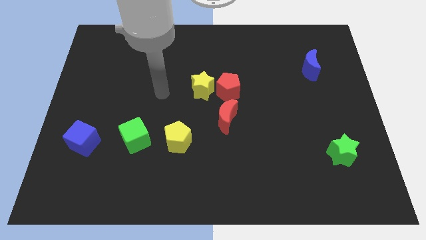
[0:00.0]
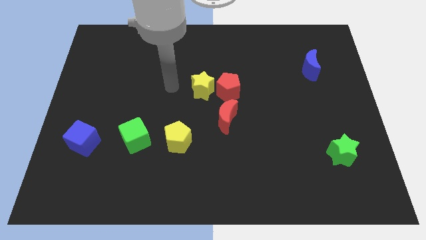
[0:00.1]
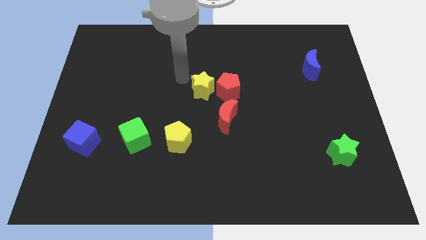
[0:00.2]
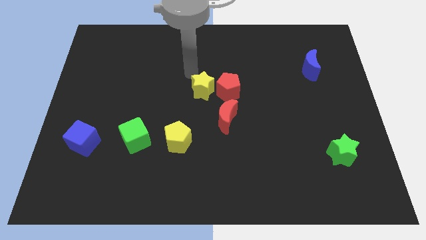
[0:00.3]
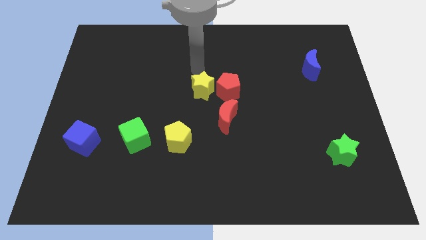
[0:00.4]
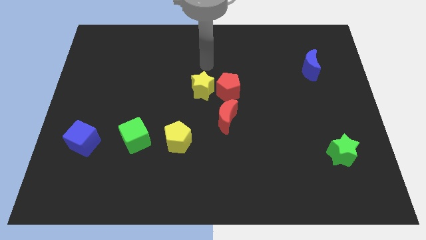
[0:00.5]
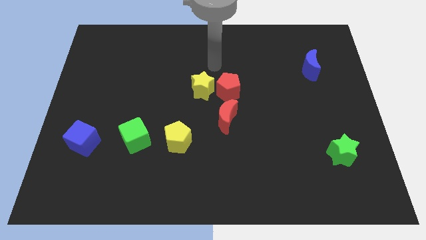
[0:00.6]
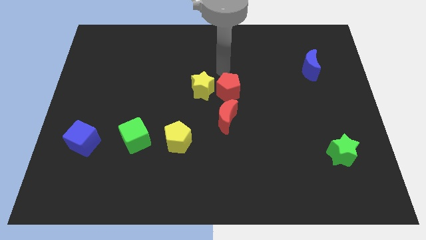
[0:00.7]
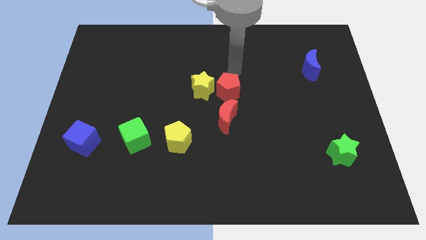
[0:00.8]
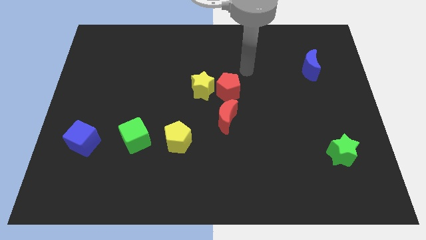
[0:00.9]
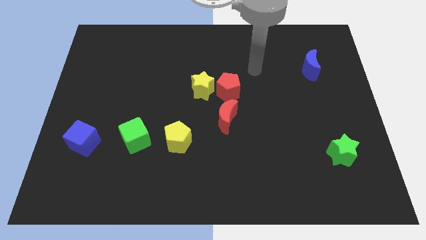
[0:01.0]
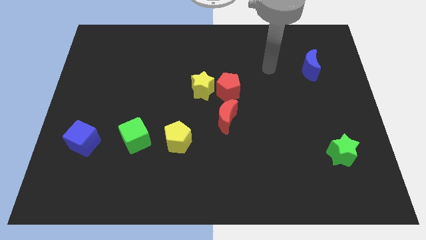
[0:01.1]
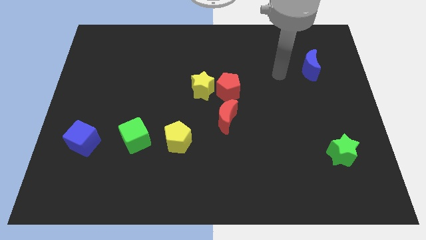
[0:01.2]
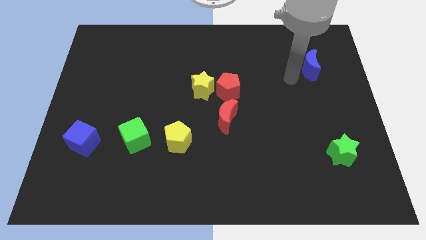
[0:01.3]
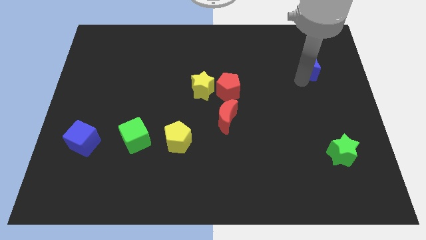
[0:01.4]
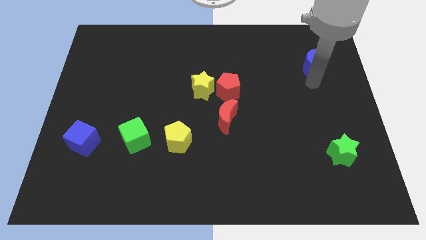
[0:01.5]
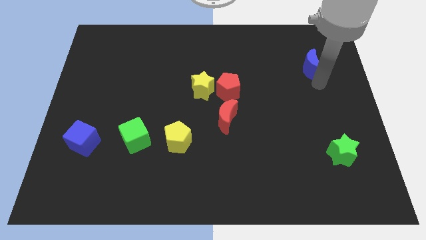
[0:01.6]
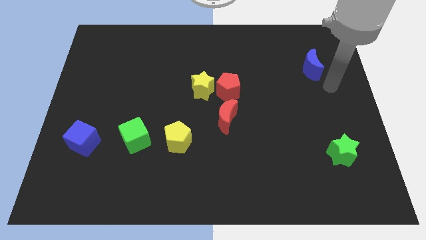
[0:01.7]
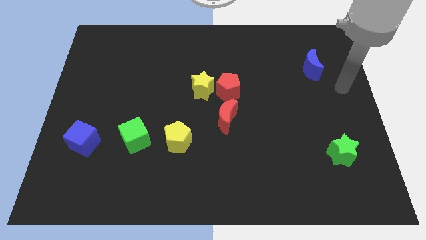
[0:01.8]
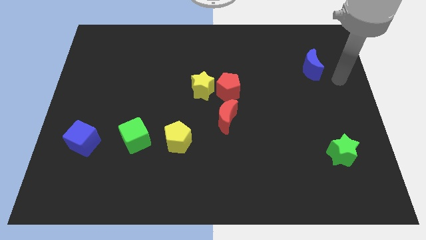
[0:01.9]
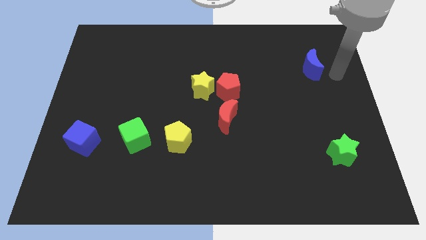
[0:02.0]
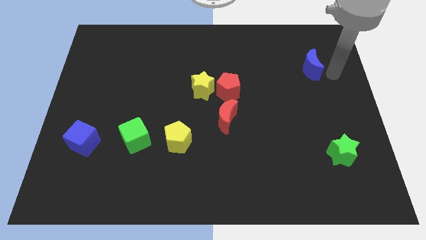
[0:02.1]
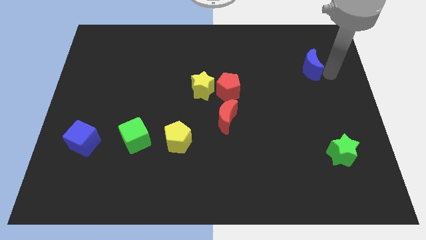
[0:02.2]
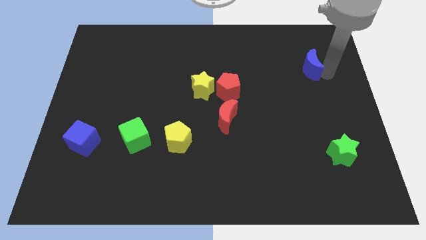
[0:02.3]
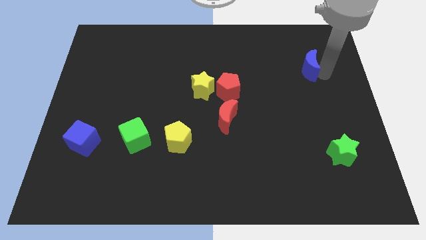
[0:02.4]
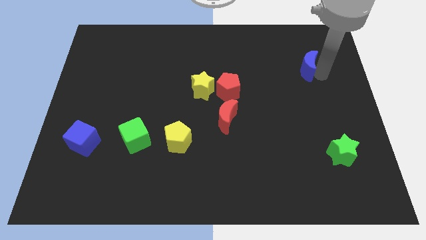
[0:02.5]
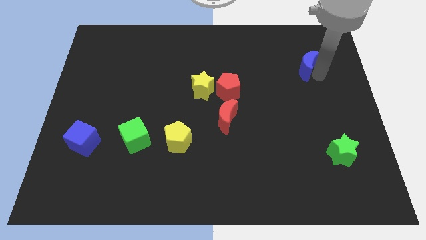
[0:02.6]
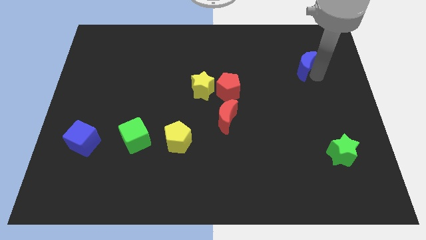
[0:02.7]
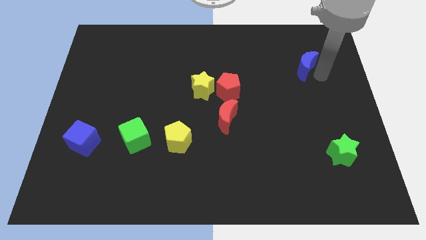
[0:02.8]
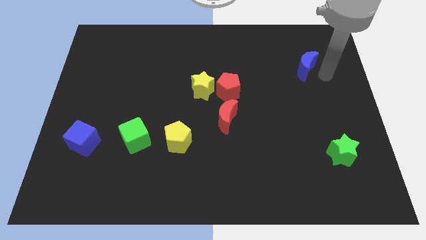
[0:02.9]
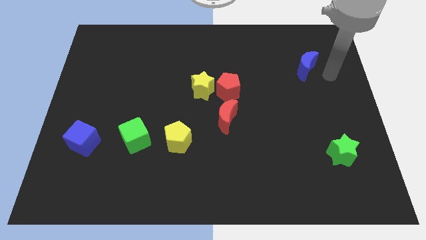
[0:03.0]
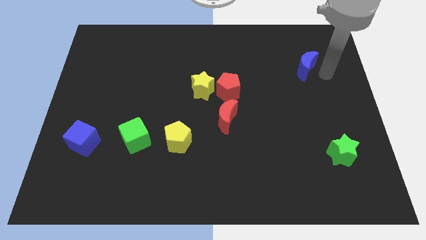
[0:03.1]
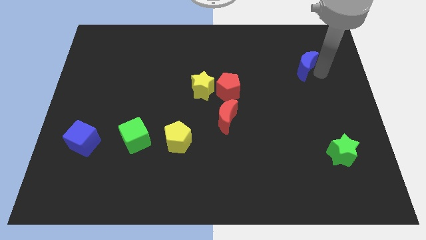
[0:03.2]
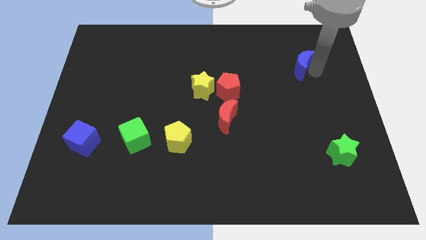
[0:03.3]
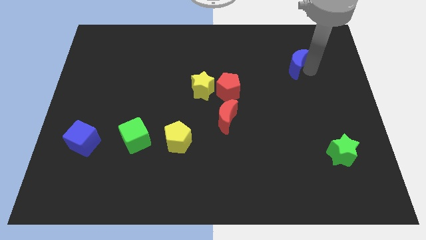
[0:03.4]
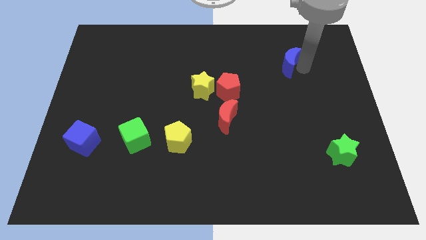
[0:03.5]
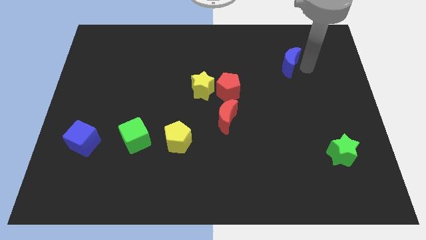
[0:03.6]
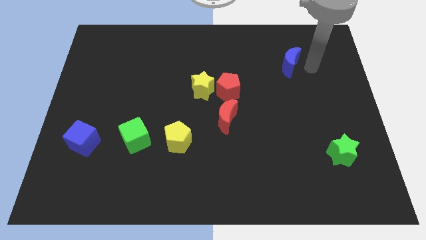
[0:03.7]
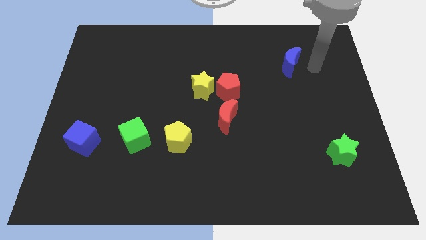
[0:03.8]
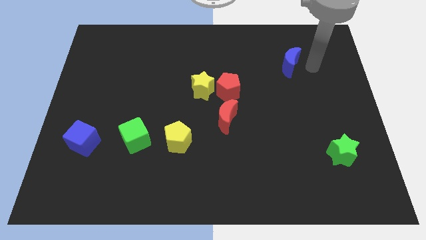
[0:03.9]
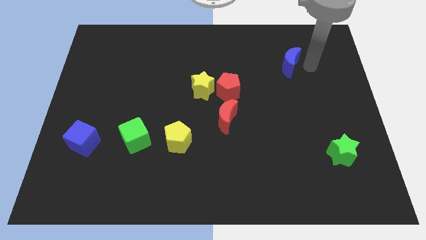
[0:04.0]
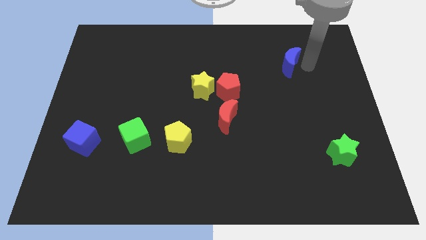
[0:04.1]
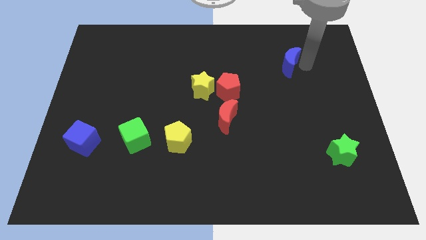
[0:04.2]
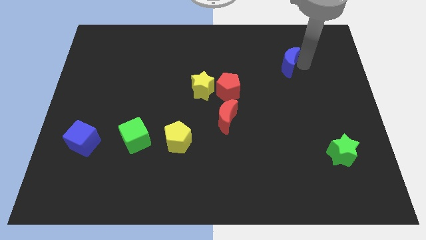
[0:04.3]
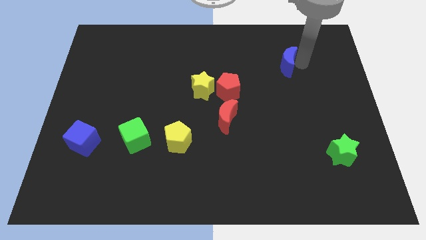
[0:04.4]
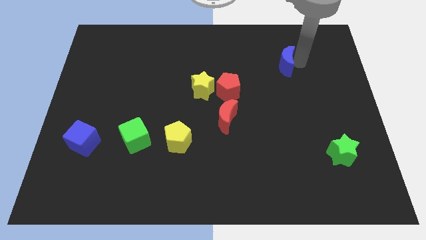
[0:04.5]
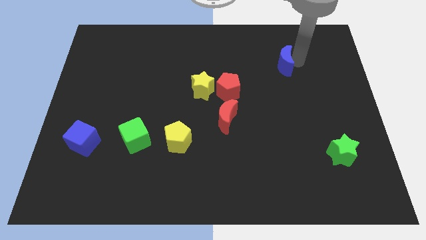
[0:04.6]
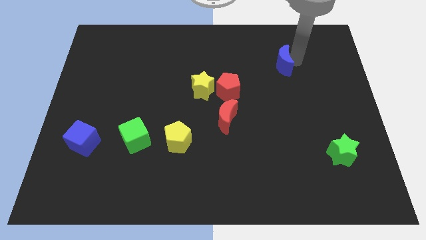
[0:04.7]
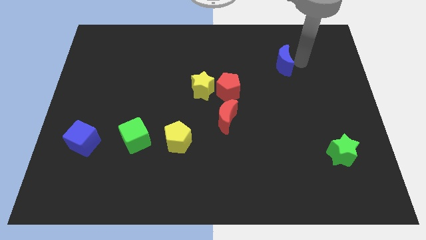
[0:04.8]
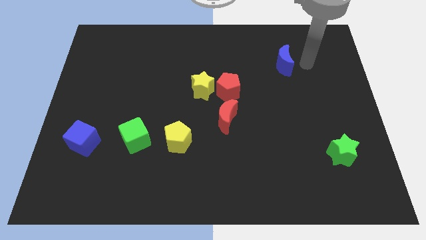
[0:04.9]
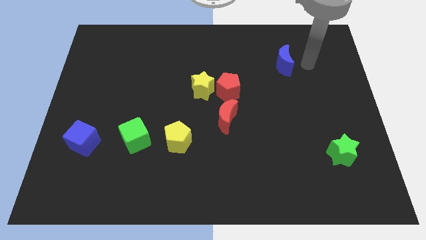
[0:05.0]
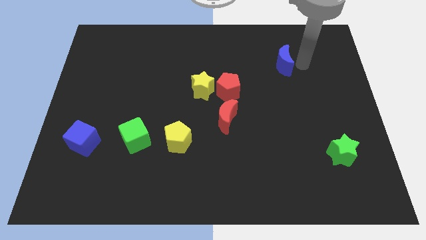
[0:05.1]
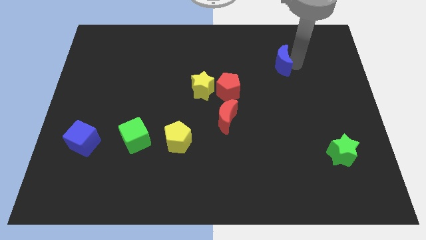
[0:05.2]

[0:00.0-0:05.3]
move the blue moon a bit left

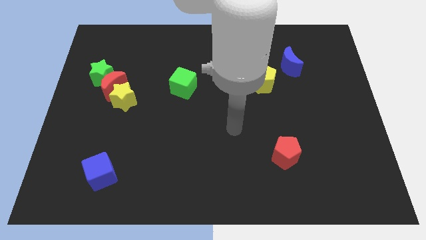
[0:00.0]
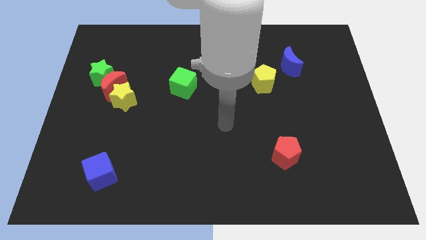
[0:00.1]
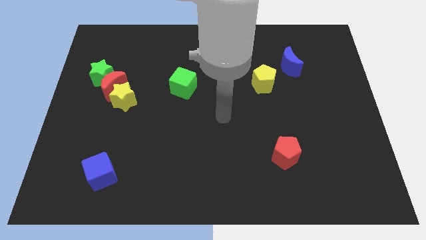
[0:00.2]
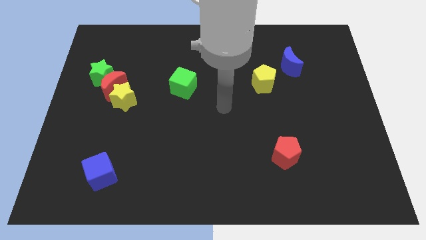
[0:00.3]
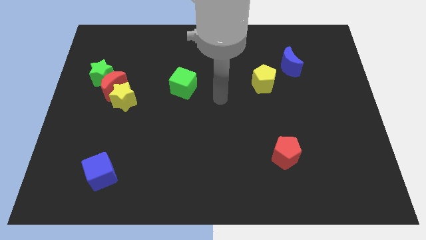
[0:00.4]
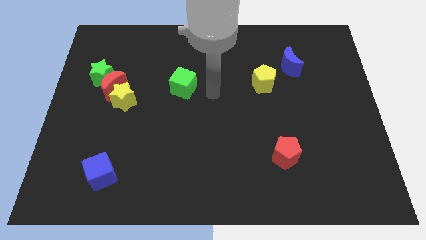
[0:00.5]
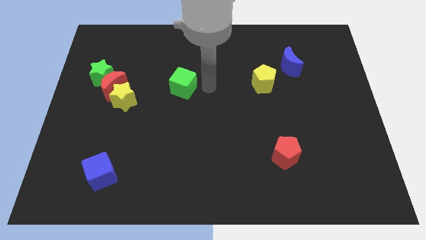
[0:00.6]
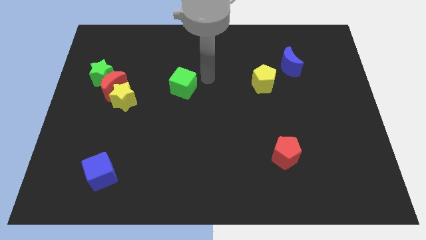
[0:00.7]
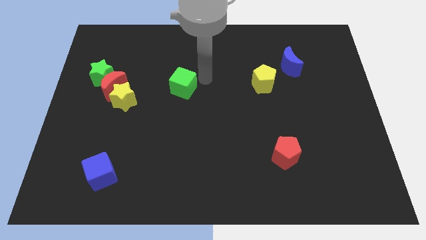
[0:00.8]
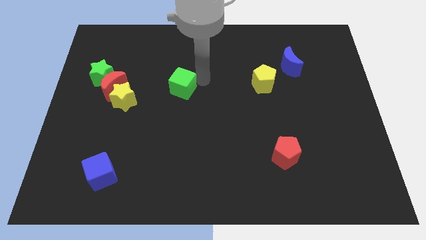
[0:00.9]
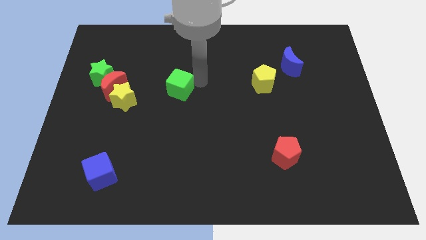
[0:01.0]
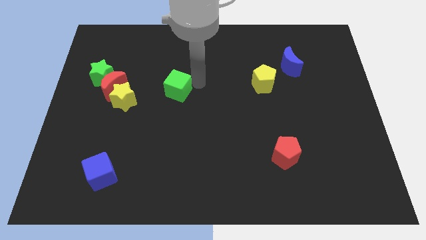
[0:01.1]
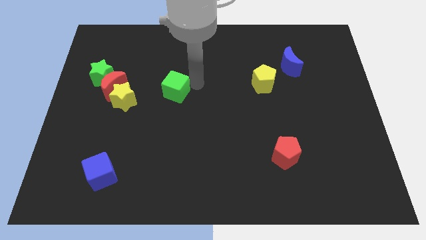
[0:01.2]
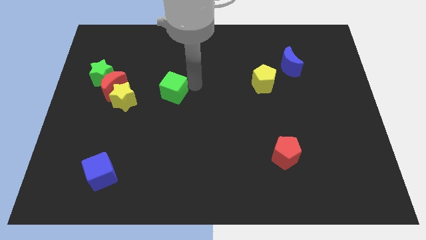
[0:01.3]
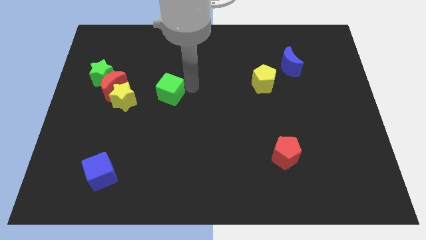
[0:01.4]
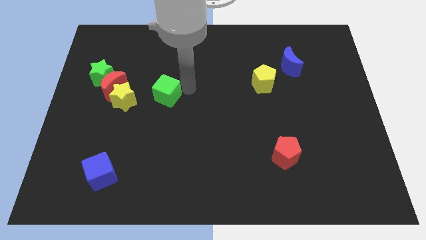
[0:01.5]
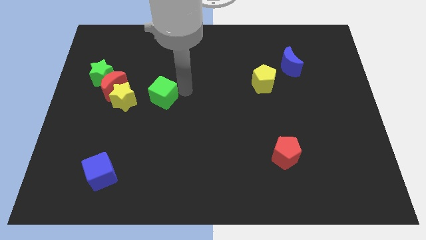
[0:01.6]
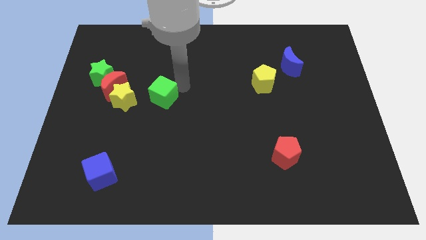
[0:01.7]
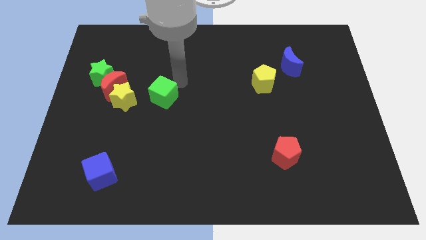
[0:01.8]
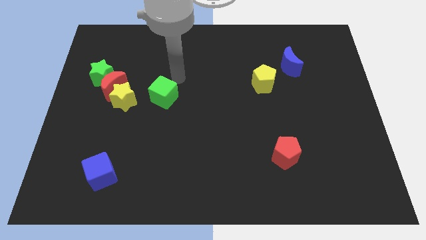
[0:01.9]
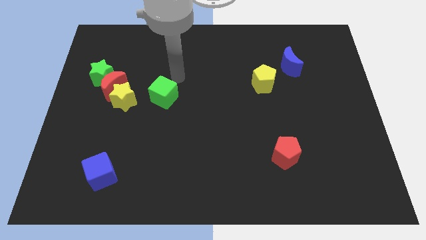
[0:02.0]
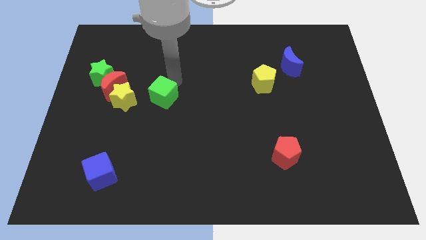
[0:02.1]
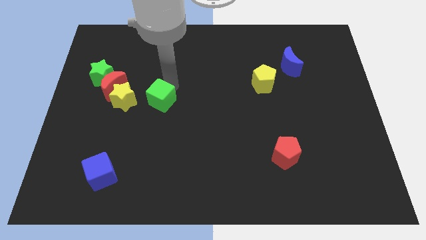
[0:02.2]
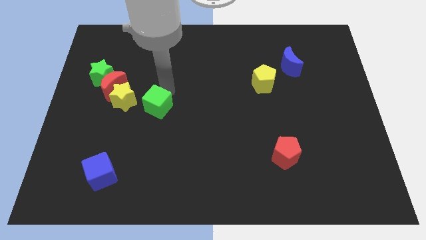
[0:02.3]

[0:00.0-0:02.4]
slightly move the green cube downwards and to the left

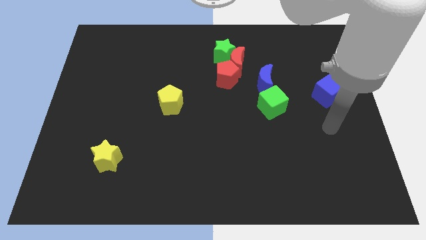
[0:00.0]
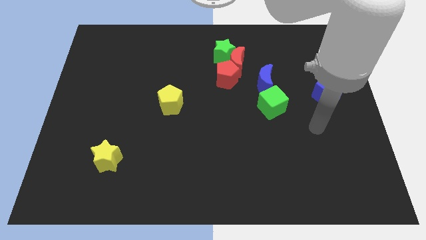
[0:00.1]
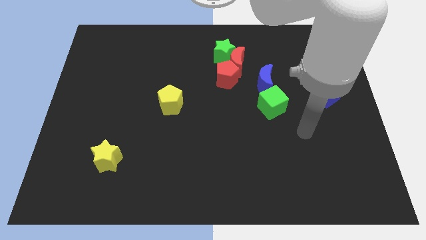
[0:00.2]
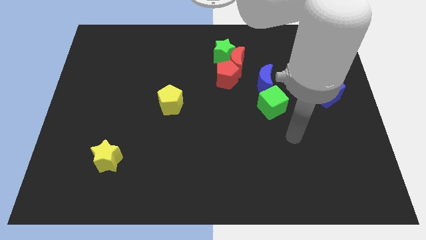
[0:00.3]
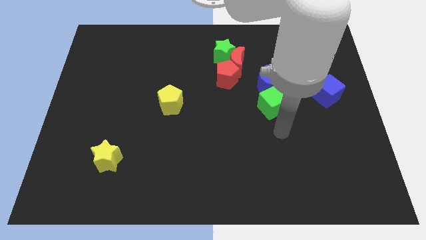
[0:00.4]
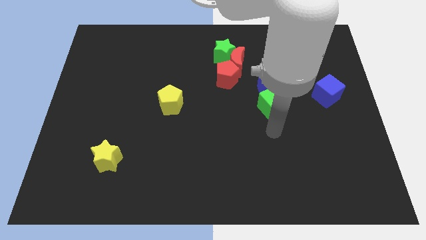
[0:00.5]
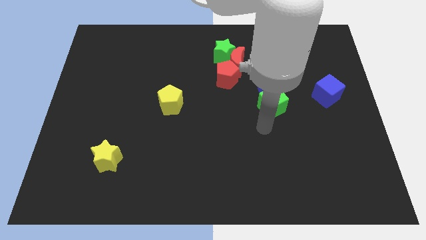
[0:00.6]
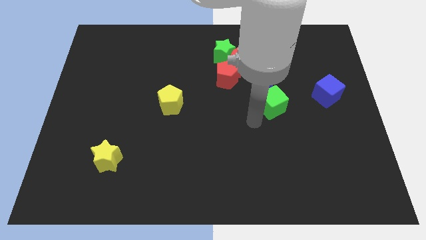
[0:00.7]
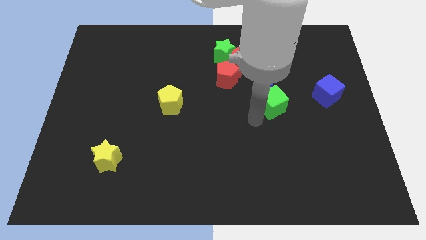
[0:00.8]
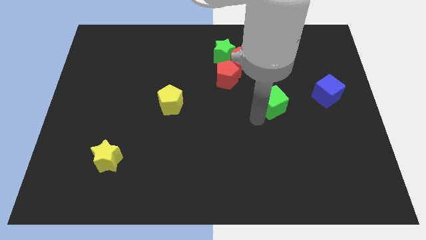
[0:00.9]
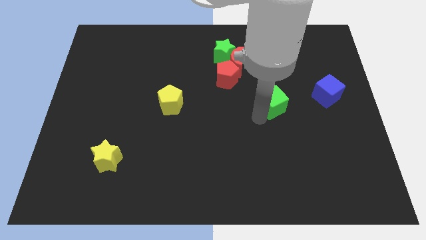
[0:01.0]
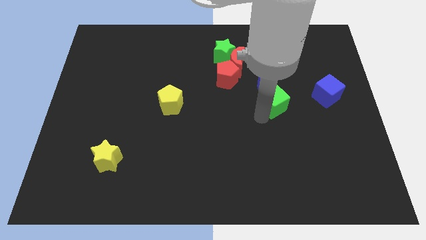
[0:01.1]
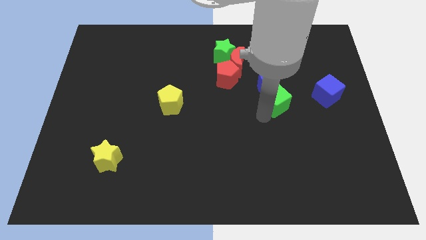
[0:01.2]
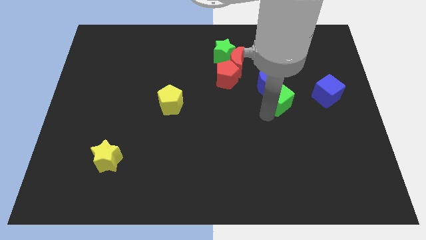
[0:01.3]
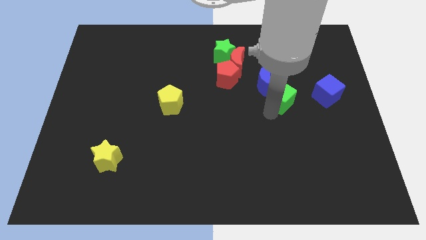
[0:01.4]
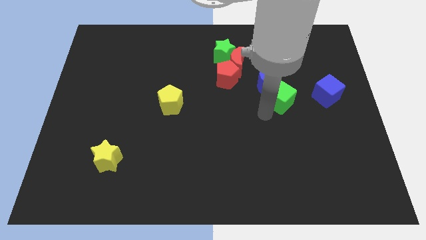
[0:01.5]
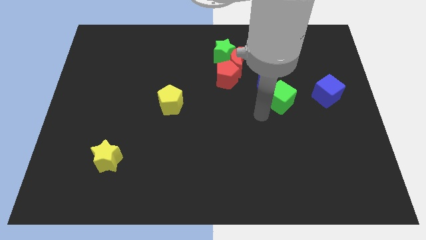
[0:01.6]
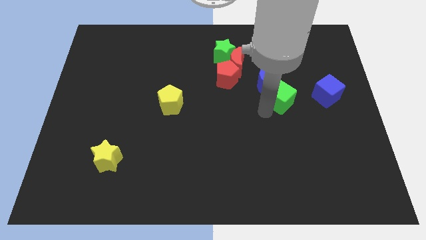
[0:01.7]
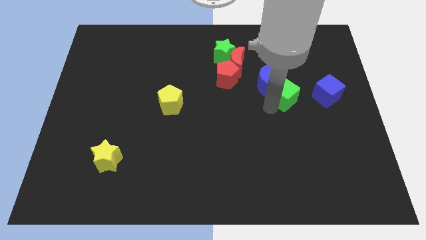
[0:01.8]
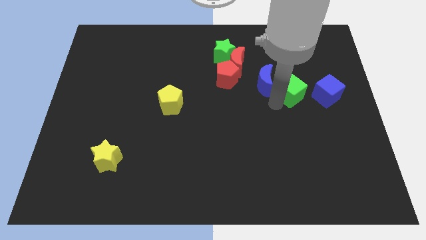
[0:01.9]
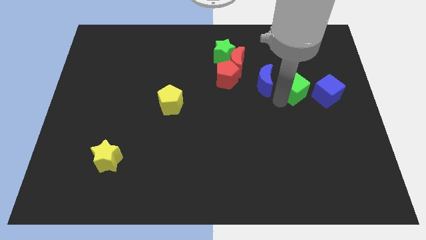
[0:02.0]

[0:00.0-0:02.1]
slightly slide the green cube upwards and right
